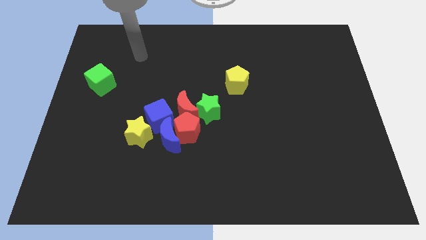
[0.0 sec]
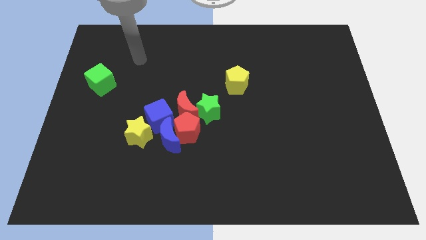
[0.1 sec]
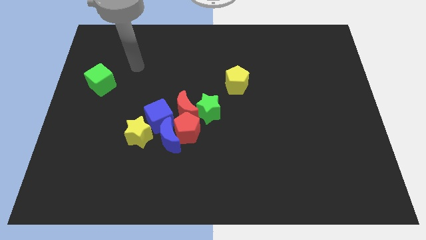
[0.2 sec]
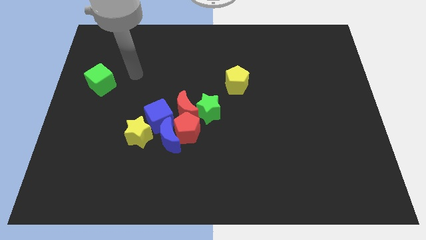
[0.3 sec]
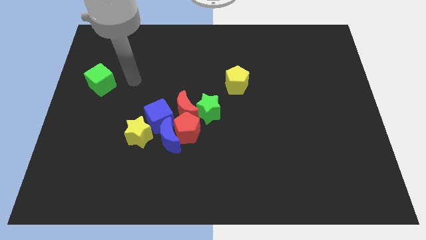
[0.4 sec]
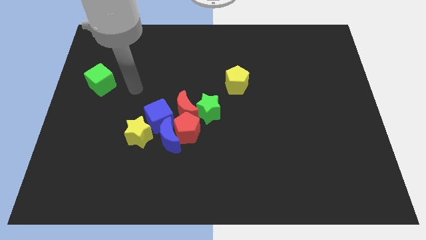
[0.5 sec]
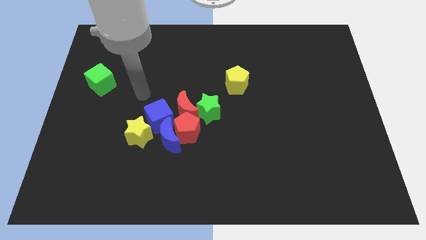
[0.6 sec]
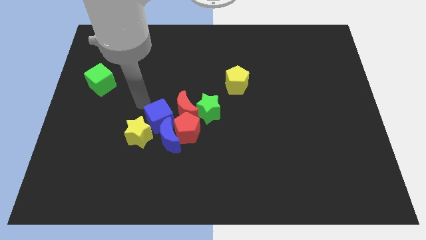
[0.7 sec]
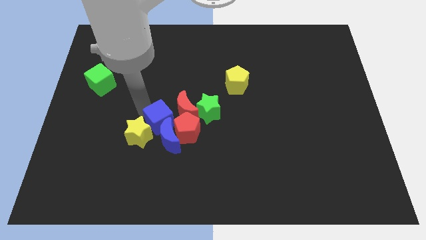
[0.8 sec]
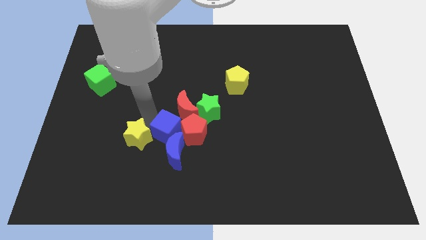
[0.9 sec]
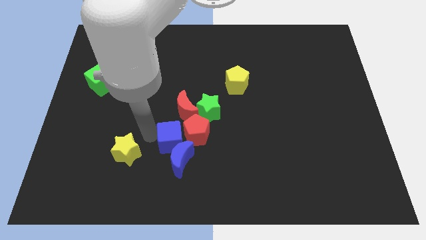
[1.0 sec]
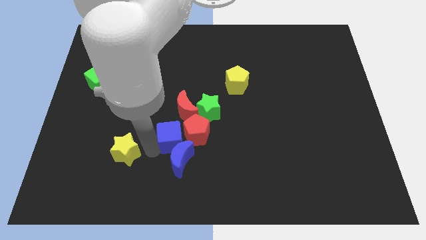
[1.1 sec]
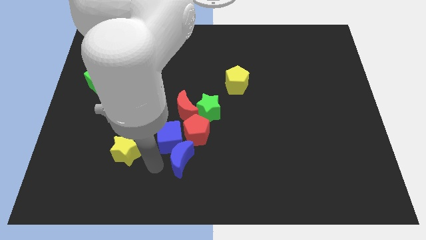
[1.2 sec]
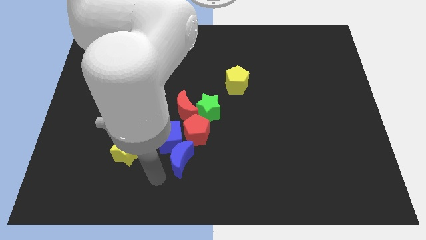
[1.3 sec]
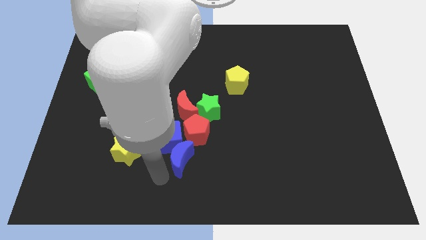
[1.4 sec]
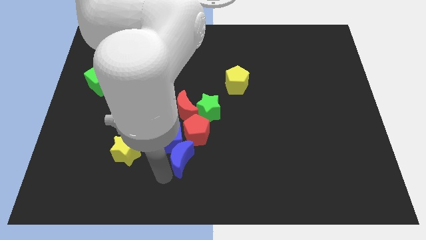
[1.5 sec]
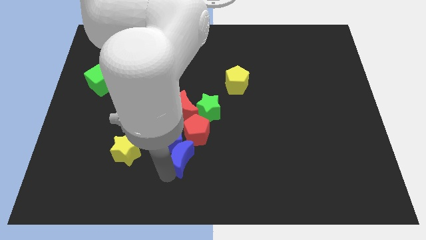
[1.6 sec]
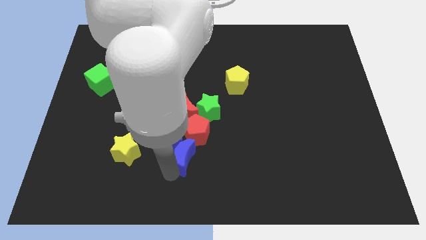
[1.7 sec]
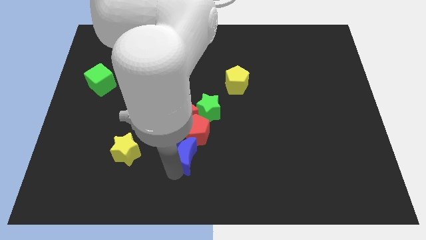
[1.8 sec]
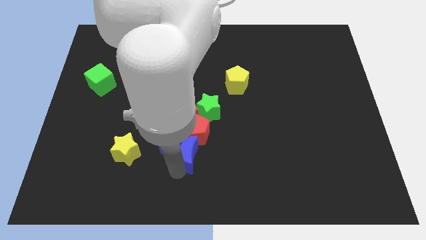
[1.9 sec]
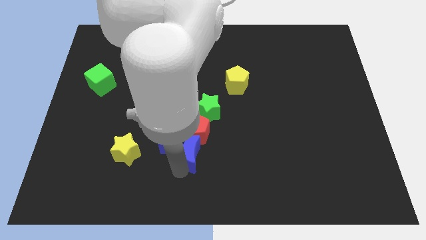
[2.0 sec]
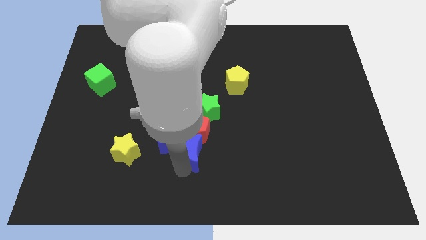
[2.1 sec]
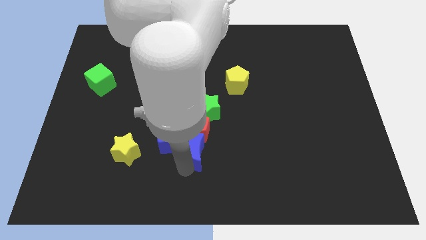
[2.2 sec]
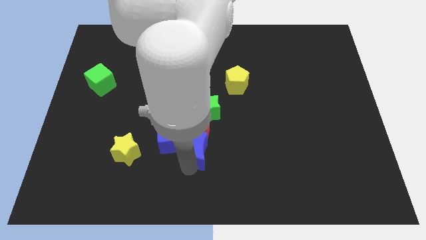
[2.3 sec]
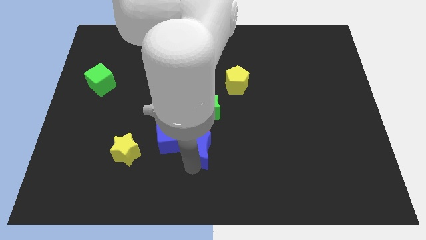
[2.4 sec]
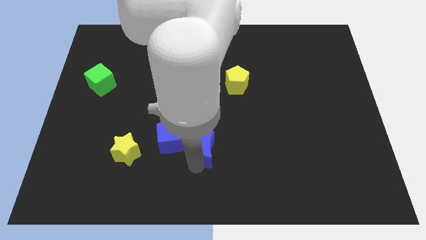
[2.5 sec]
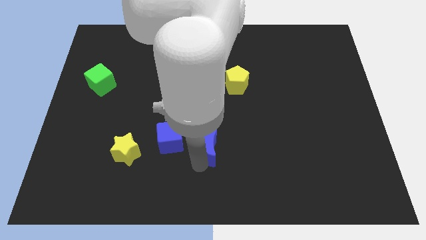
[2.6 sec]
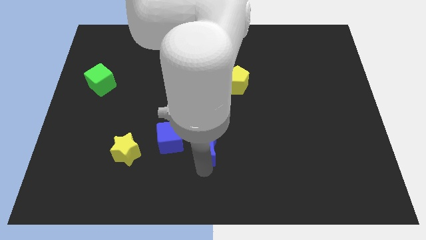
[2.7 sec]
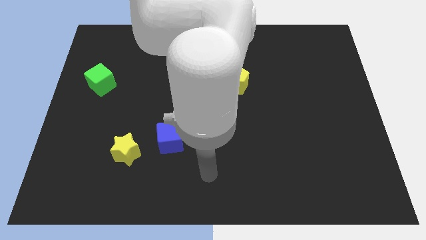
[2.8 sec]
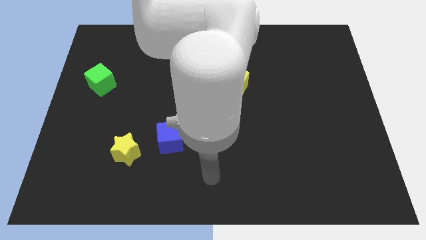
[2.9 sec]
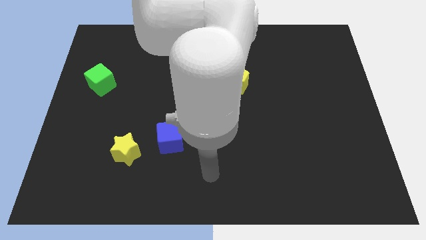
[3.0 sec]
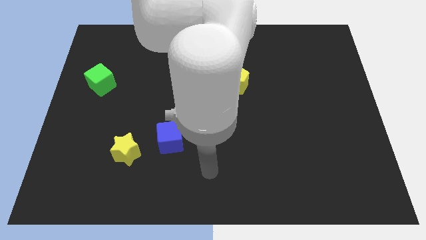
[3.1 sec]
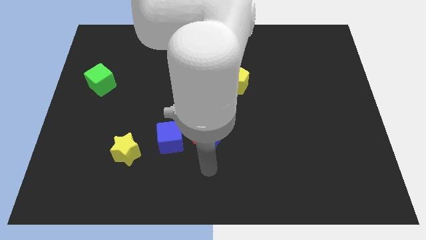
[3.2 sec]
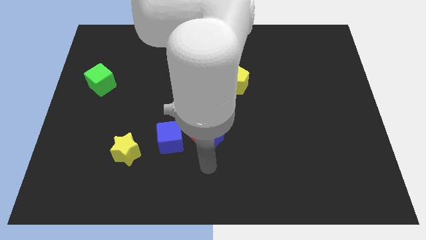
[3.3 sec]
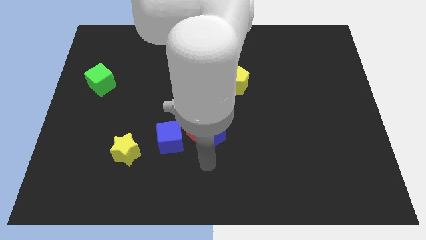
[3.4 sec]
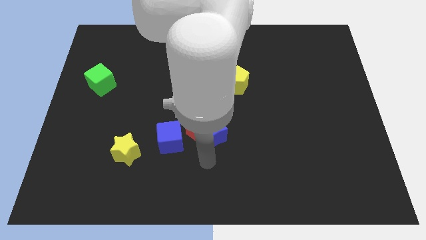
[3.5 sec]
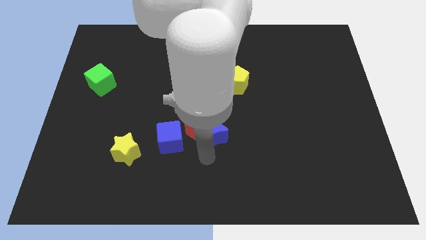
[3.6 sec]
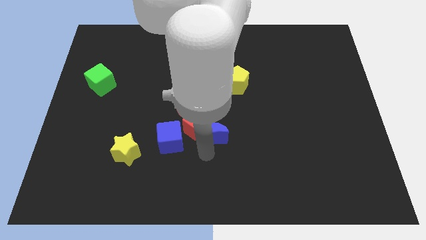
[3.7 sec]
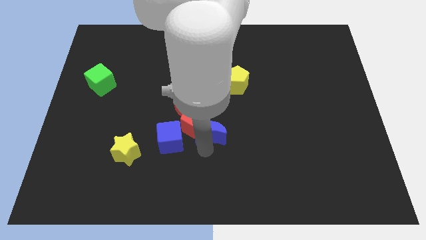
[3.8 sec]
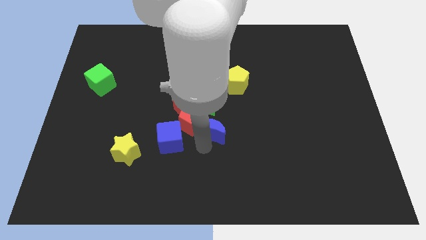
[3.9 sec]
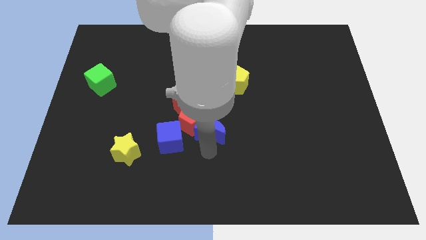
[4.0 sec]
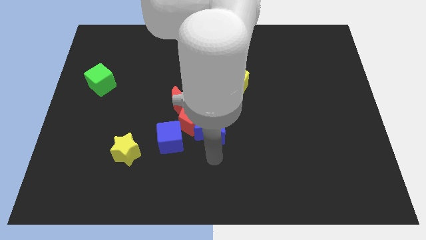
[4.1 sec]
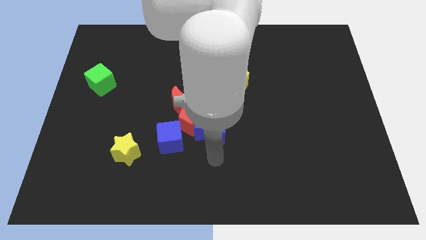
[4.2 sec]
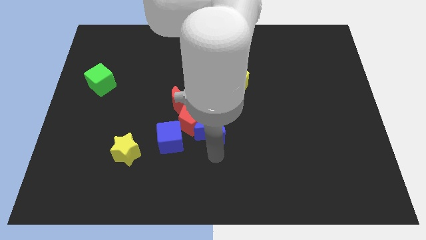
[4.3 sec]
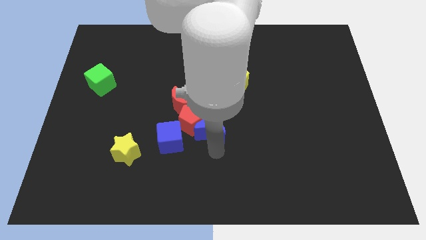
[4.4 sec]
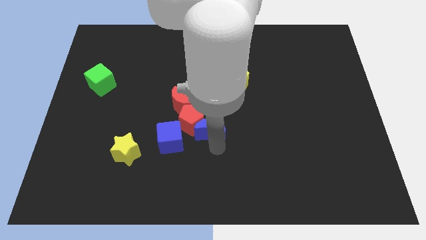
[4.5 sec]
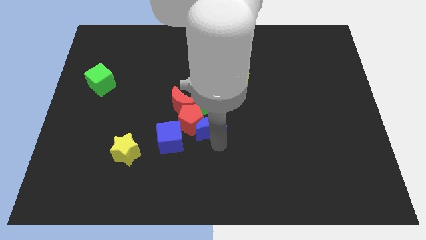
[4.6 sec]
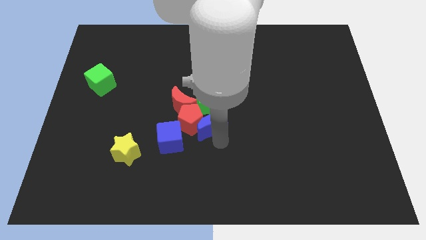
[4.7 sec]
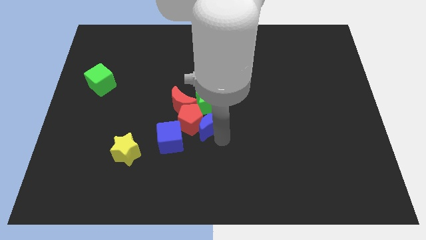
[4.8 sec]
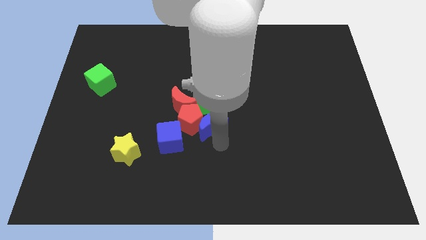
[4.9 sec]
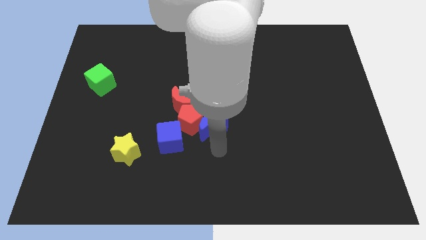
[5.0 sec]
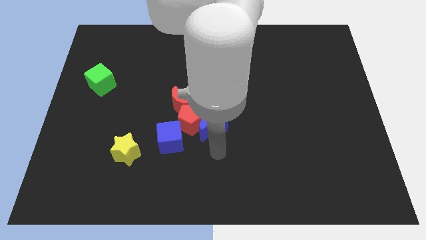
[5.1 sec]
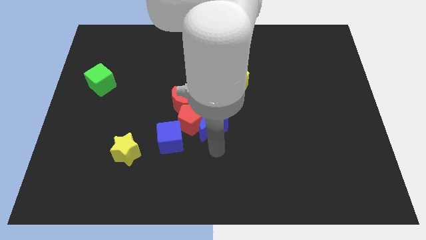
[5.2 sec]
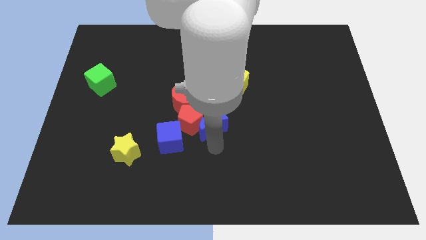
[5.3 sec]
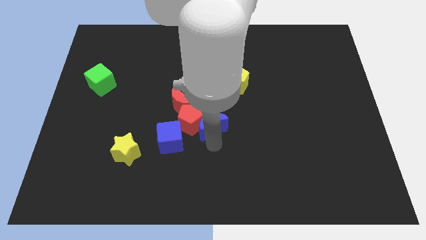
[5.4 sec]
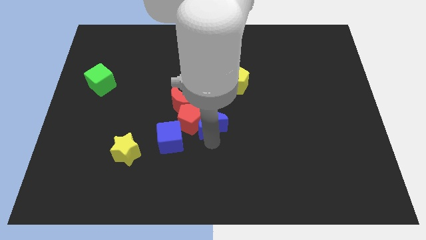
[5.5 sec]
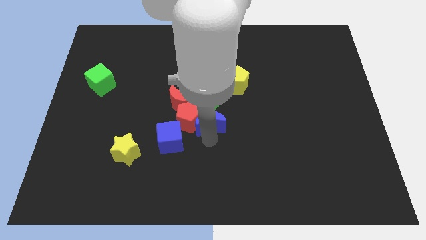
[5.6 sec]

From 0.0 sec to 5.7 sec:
move the blue moon to the green star

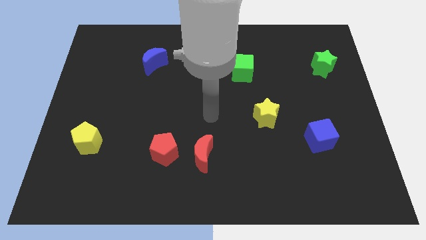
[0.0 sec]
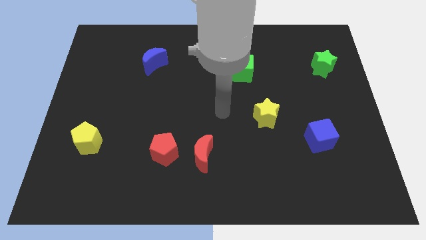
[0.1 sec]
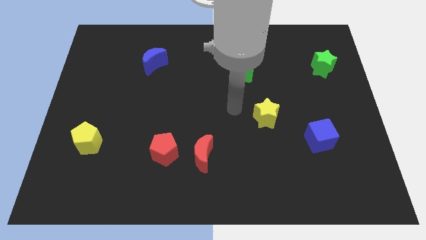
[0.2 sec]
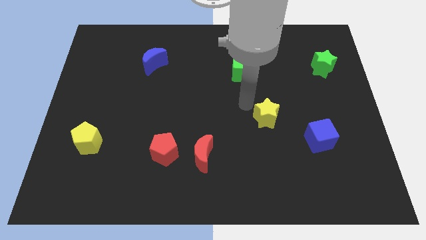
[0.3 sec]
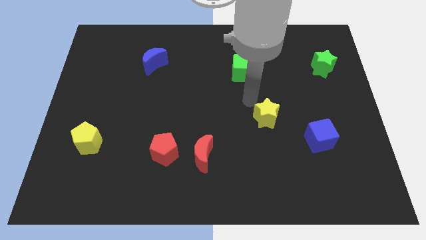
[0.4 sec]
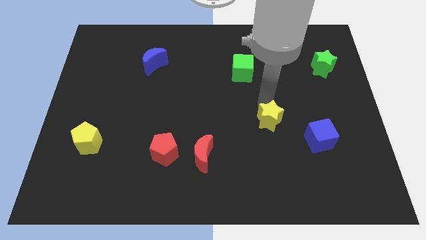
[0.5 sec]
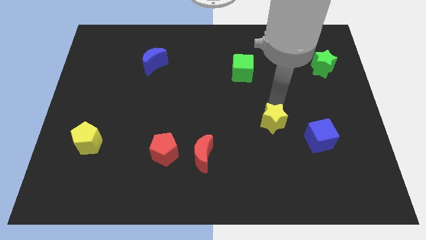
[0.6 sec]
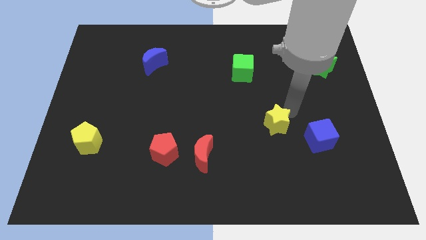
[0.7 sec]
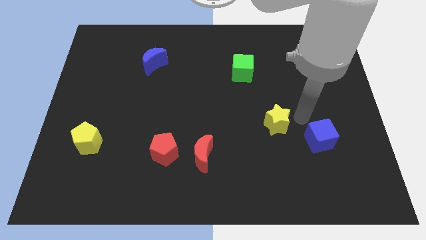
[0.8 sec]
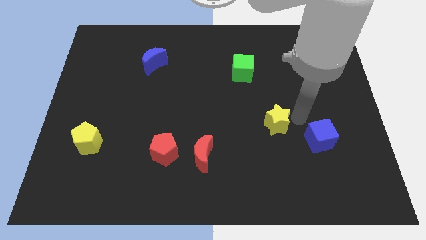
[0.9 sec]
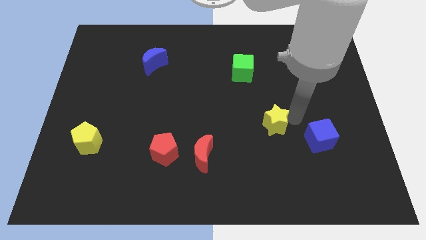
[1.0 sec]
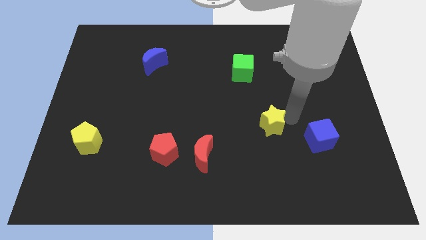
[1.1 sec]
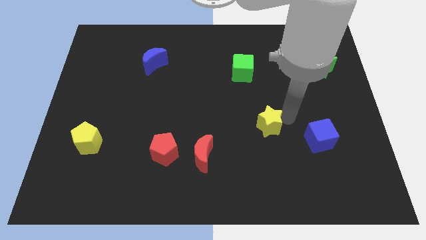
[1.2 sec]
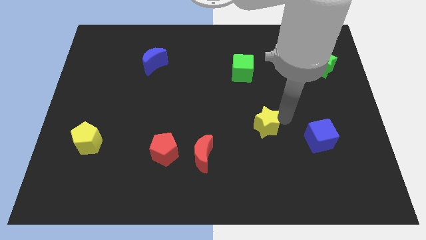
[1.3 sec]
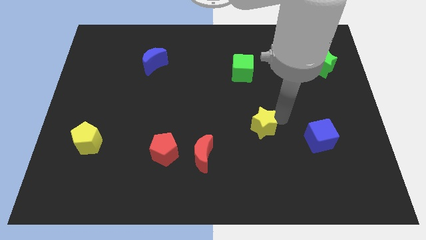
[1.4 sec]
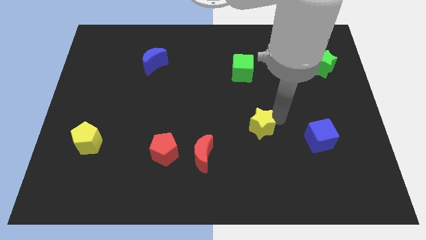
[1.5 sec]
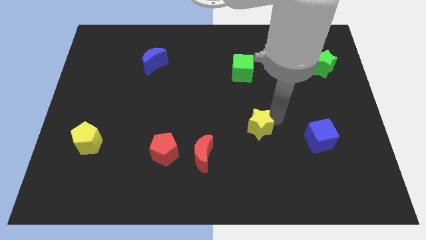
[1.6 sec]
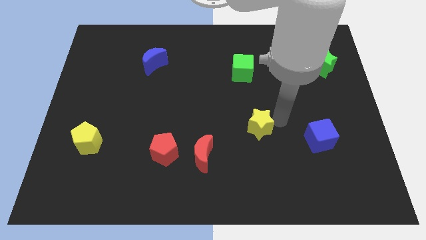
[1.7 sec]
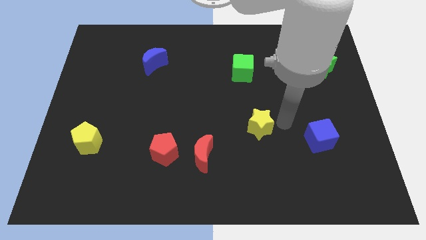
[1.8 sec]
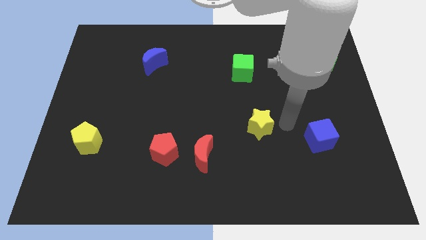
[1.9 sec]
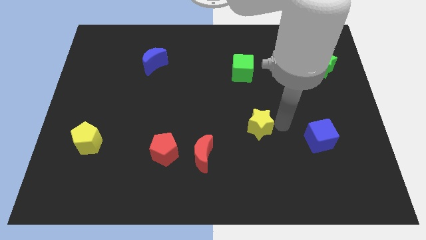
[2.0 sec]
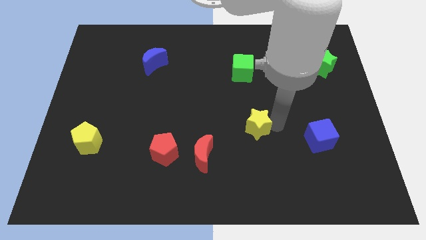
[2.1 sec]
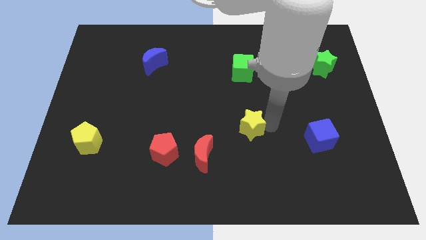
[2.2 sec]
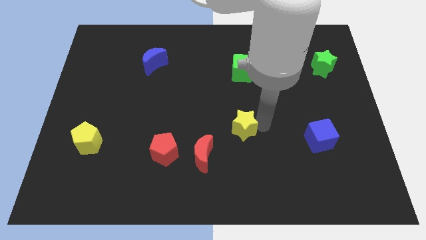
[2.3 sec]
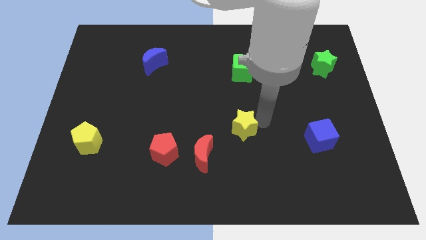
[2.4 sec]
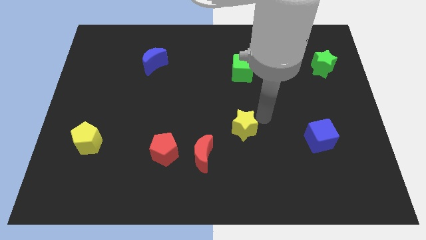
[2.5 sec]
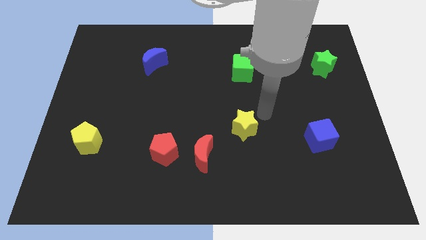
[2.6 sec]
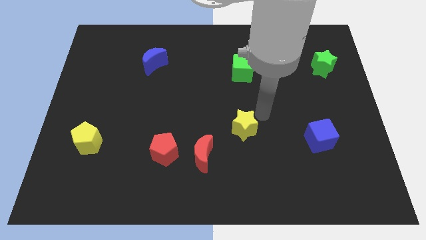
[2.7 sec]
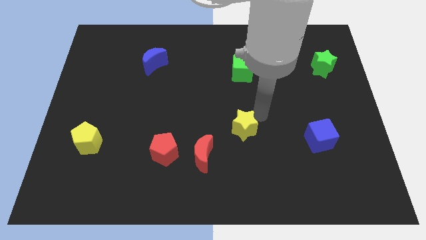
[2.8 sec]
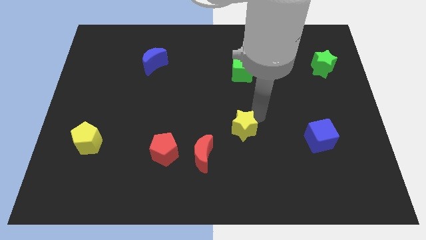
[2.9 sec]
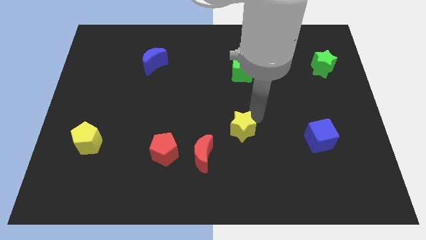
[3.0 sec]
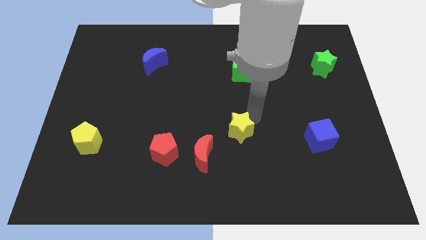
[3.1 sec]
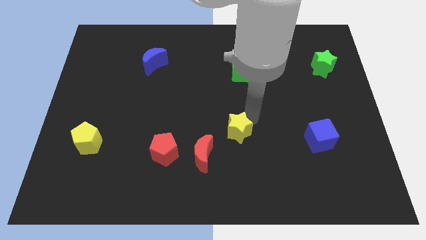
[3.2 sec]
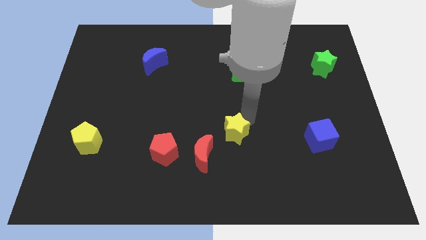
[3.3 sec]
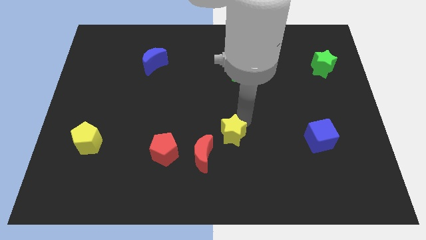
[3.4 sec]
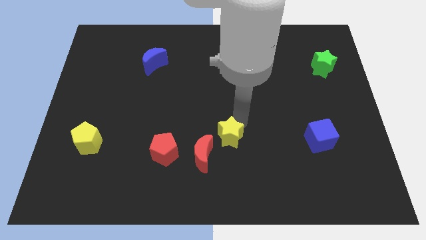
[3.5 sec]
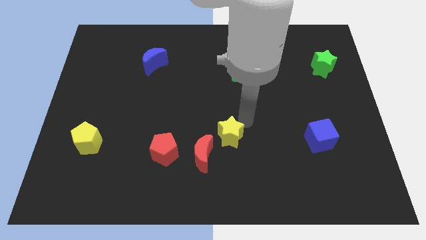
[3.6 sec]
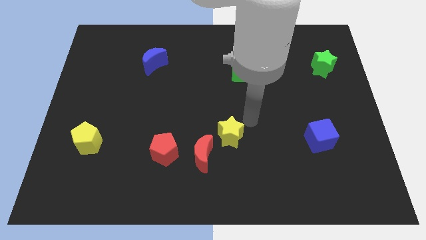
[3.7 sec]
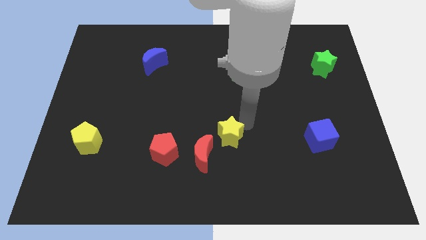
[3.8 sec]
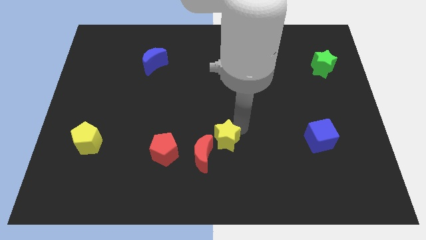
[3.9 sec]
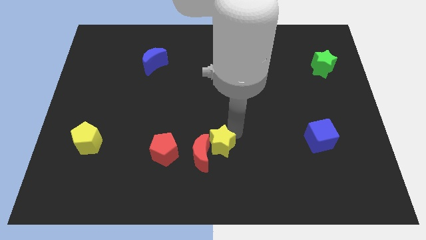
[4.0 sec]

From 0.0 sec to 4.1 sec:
put the yellow star next to the red moon
